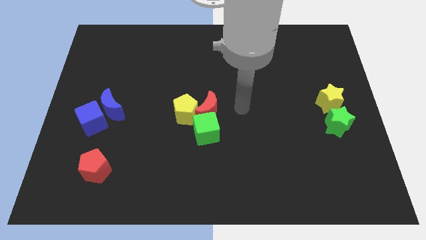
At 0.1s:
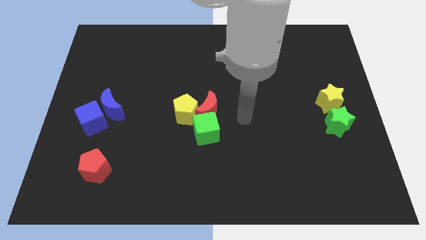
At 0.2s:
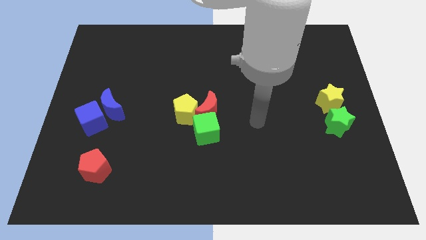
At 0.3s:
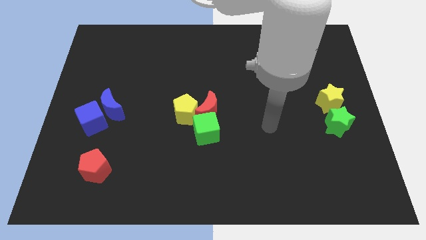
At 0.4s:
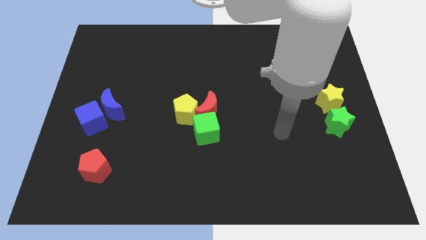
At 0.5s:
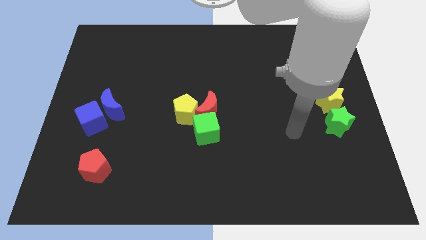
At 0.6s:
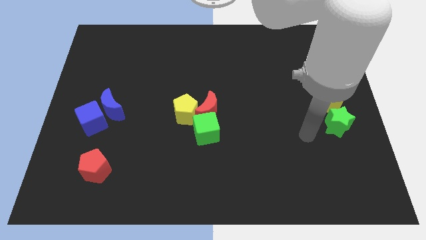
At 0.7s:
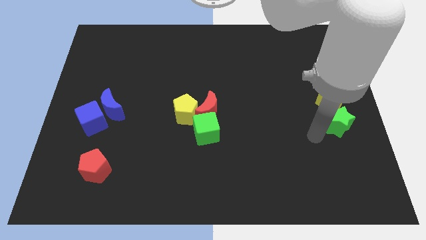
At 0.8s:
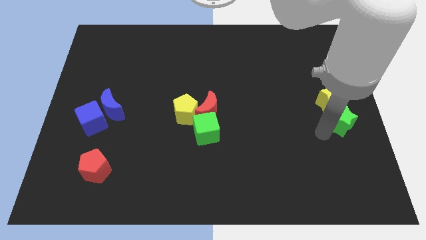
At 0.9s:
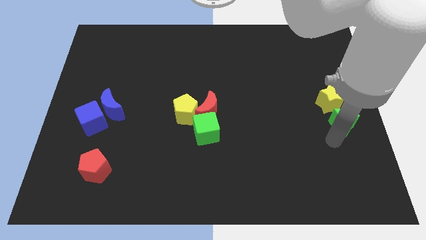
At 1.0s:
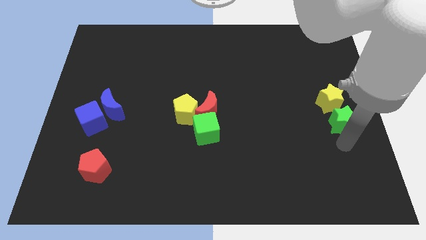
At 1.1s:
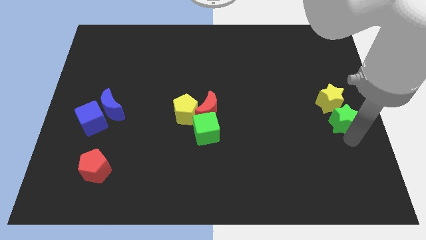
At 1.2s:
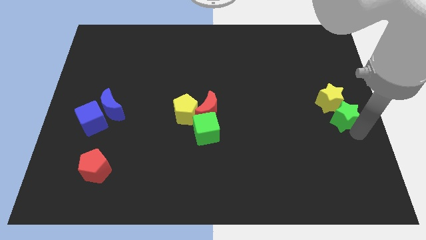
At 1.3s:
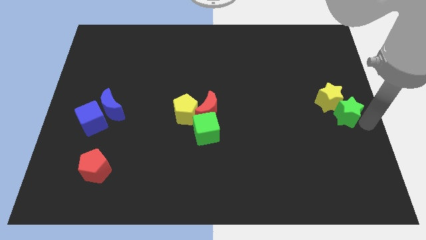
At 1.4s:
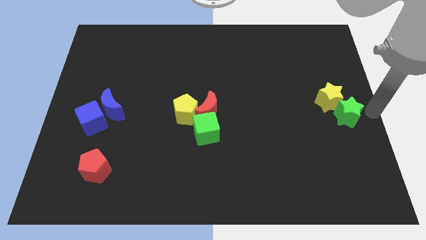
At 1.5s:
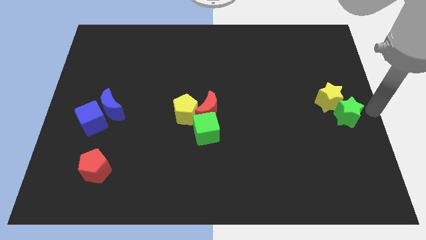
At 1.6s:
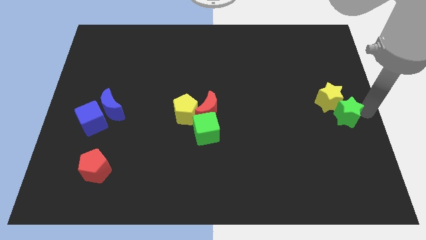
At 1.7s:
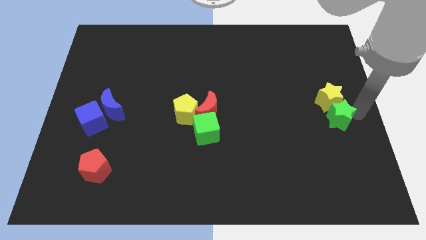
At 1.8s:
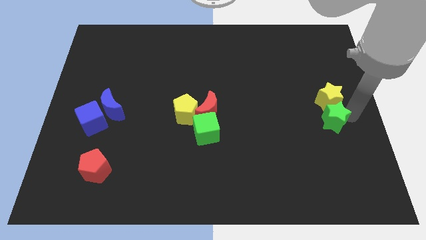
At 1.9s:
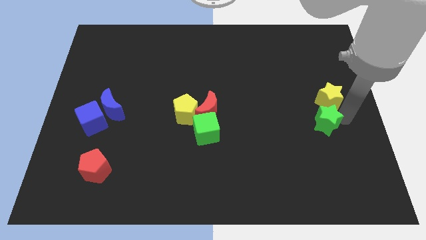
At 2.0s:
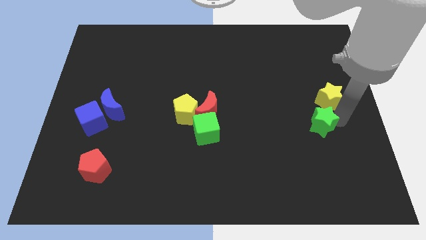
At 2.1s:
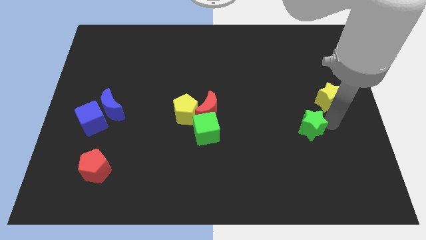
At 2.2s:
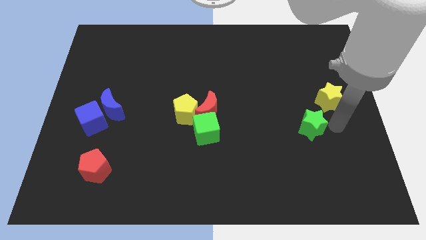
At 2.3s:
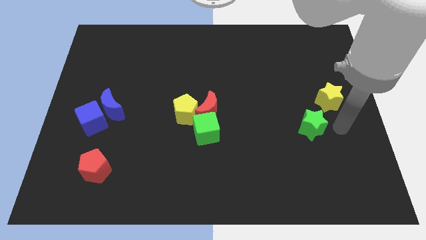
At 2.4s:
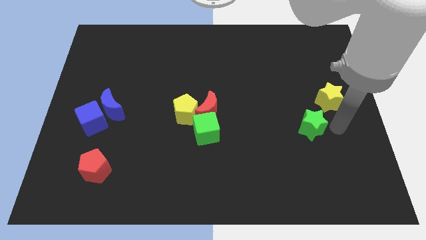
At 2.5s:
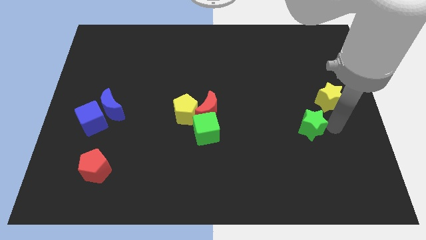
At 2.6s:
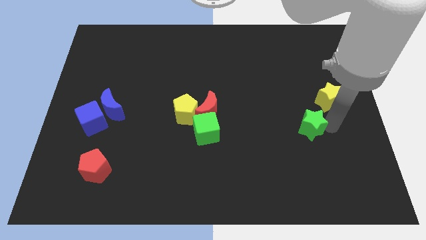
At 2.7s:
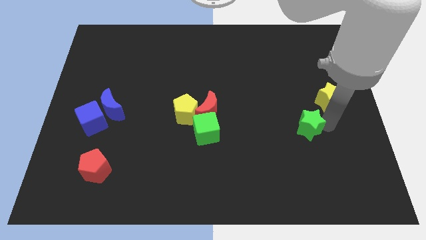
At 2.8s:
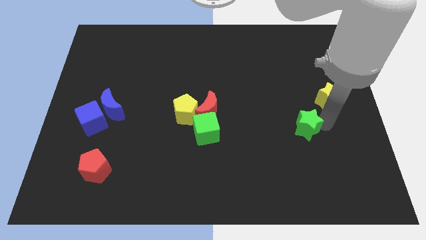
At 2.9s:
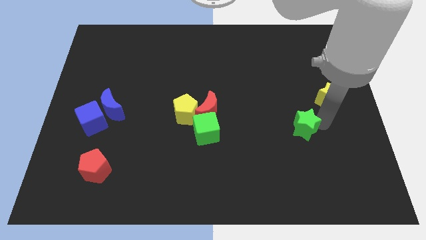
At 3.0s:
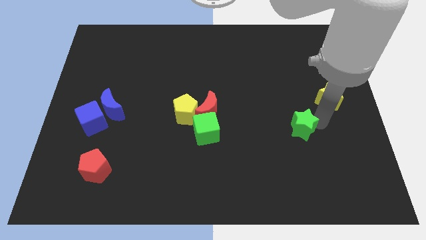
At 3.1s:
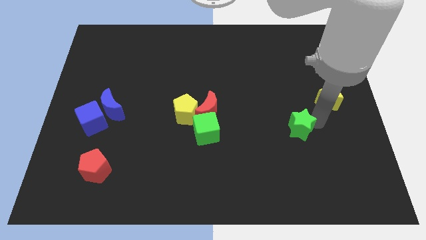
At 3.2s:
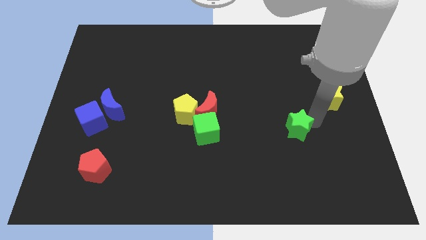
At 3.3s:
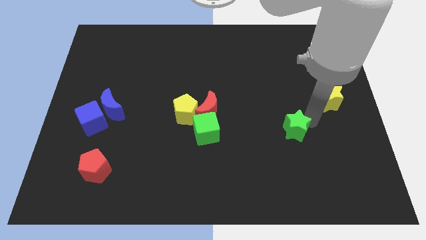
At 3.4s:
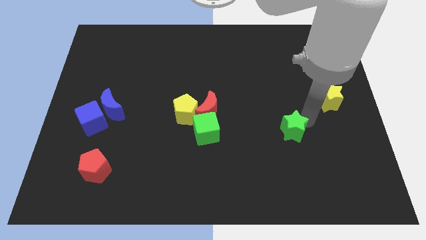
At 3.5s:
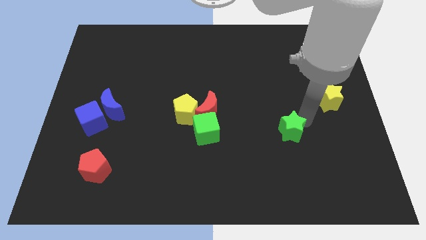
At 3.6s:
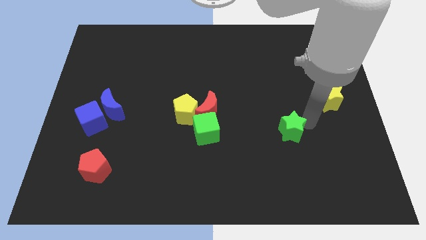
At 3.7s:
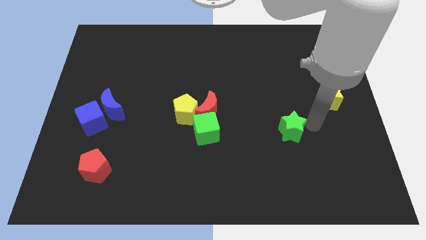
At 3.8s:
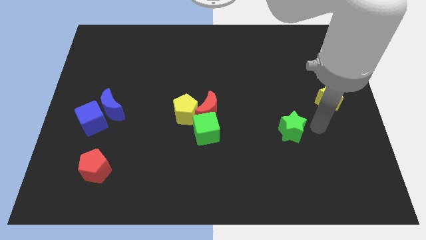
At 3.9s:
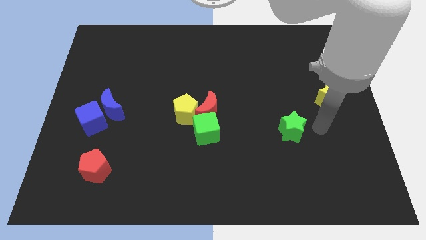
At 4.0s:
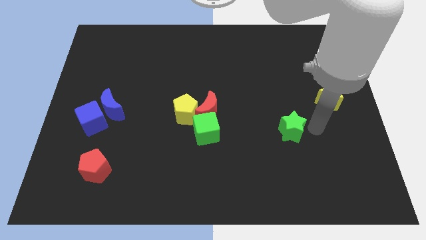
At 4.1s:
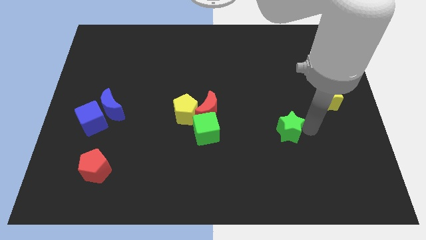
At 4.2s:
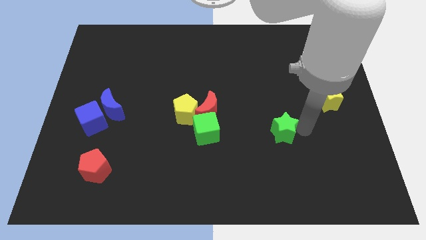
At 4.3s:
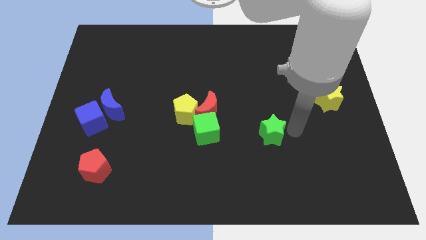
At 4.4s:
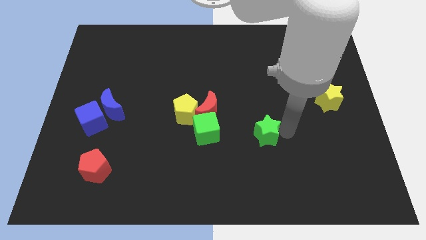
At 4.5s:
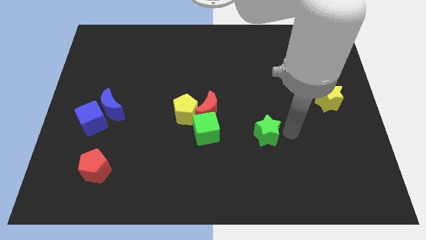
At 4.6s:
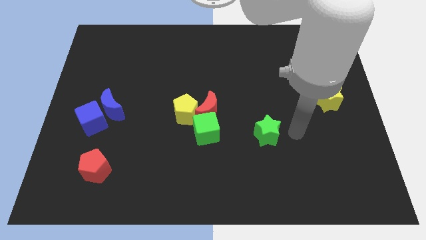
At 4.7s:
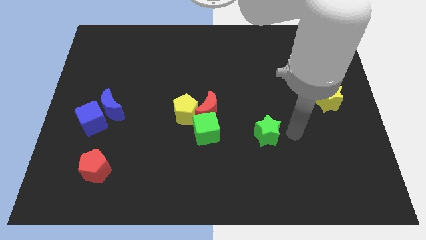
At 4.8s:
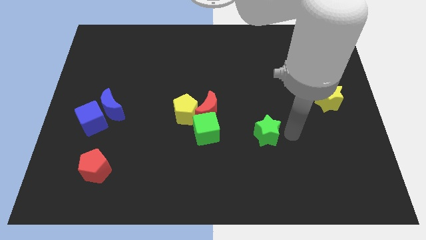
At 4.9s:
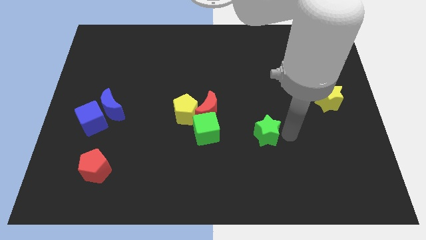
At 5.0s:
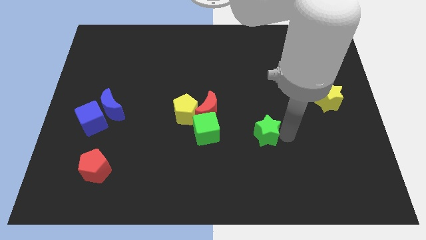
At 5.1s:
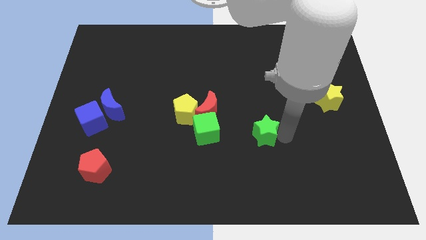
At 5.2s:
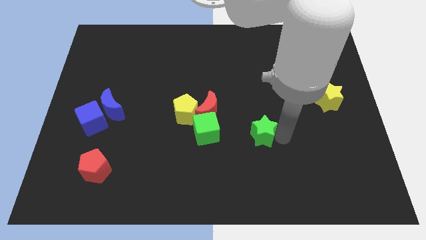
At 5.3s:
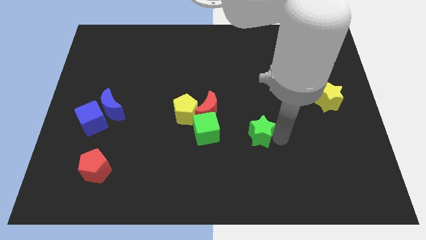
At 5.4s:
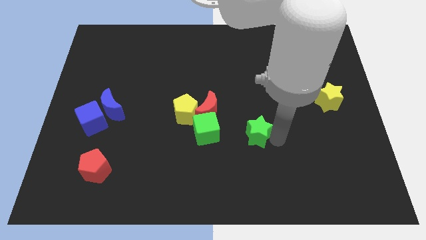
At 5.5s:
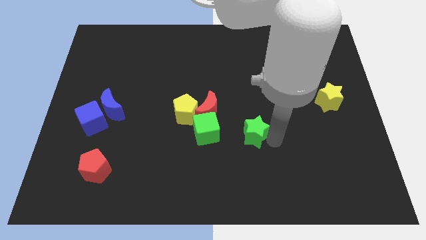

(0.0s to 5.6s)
put the green star to the bottom right side of the red moon

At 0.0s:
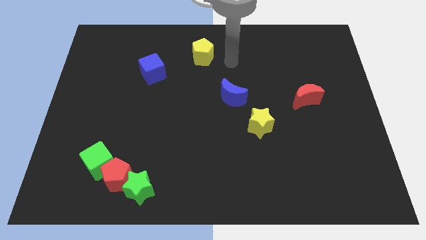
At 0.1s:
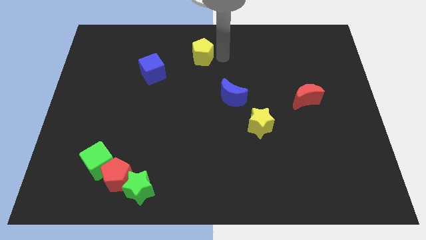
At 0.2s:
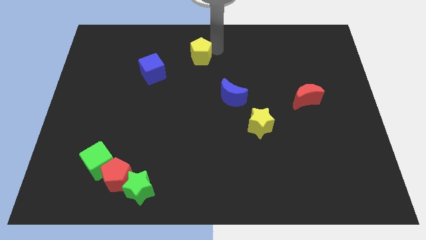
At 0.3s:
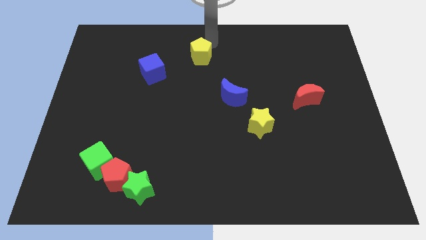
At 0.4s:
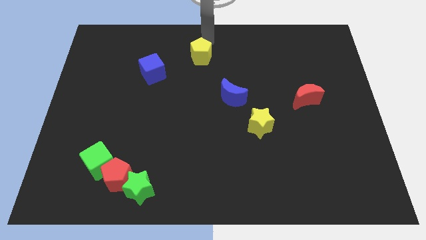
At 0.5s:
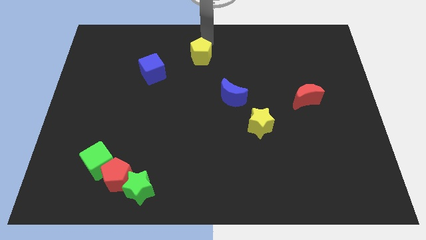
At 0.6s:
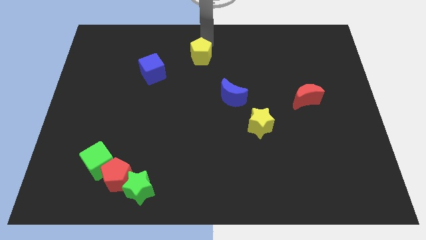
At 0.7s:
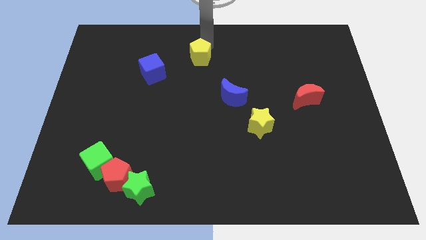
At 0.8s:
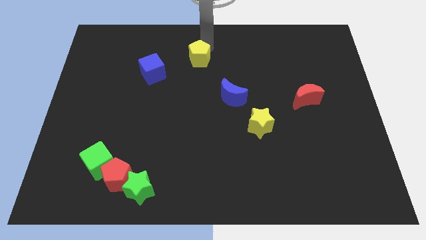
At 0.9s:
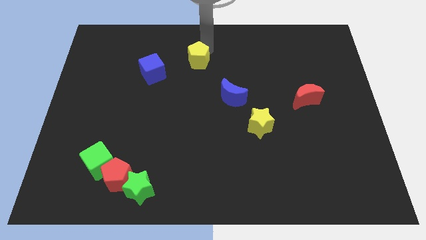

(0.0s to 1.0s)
slide the yellow pentagon to the right of the blue cube

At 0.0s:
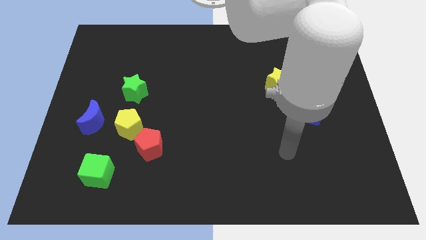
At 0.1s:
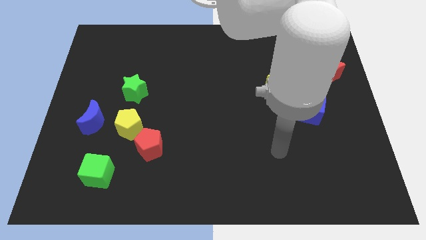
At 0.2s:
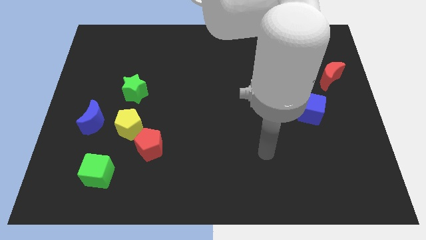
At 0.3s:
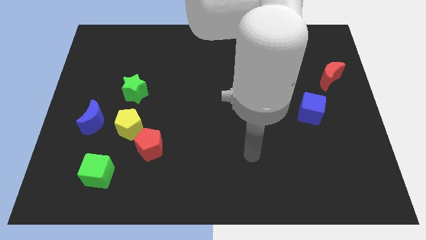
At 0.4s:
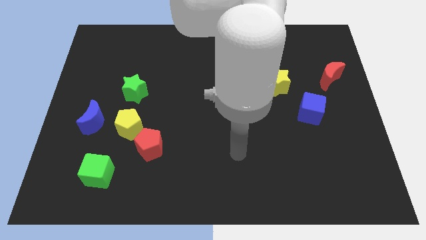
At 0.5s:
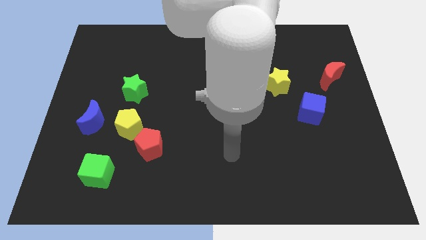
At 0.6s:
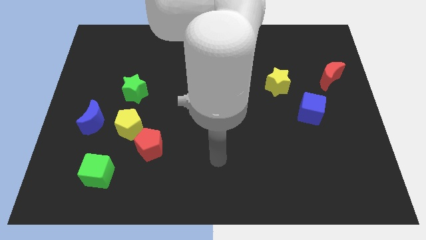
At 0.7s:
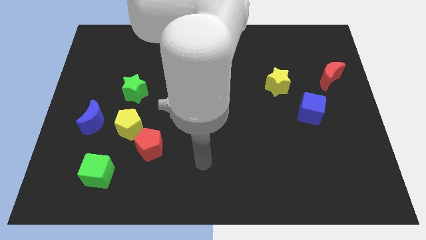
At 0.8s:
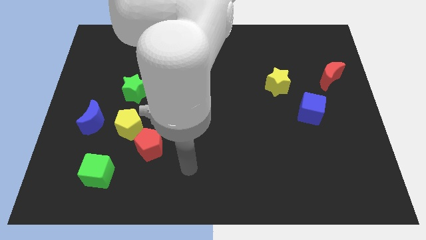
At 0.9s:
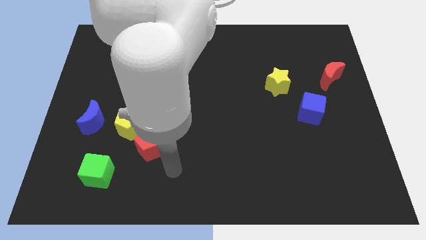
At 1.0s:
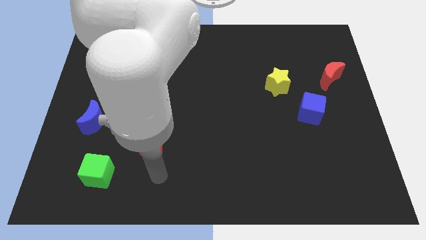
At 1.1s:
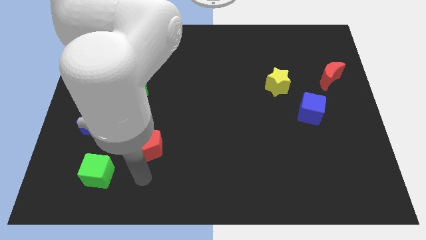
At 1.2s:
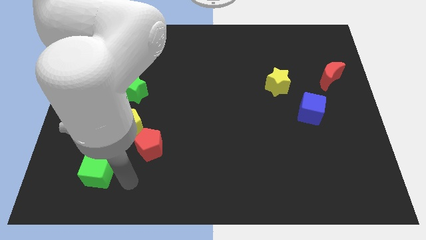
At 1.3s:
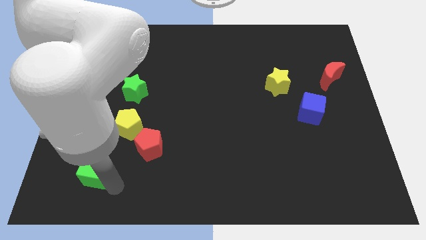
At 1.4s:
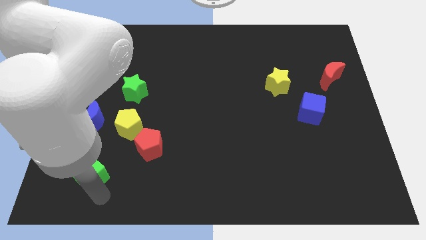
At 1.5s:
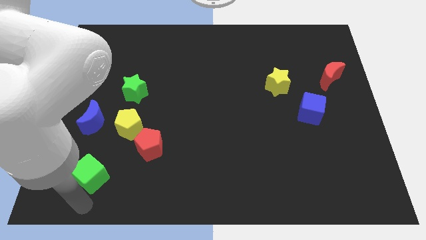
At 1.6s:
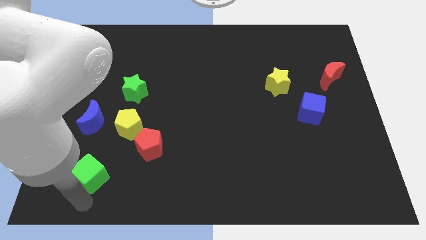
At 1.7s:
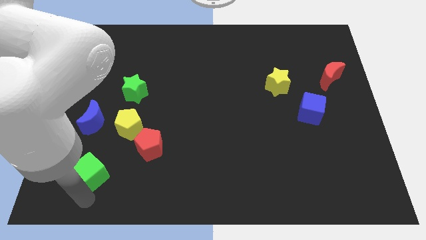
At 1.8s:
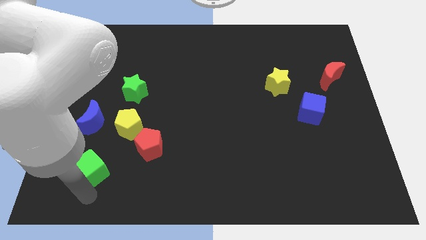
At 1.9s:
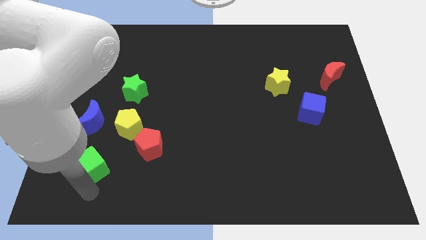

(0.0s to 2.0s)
move the green cube to the bottom left of the yellow pentagon
